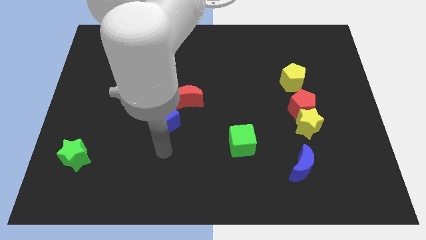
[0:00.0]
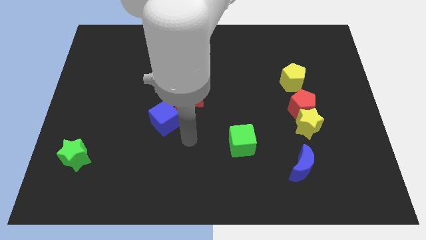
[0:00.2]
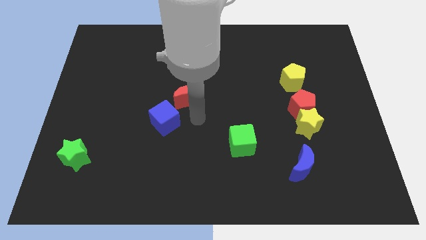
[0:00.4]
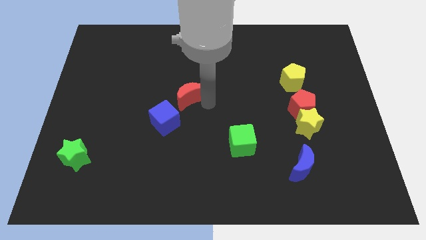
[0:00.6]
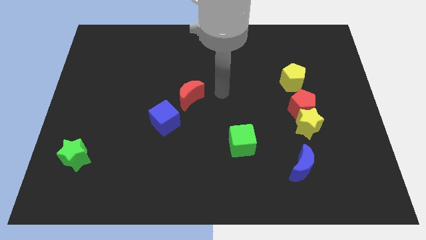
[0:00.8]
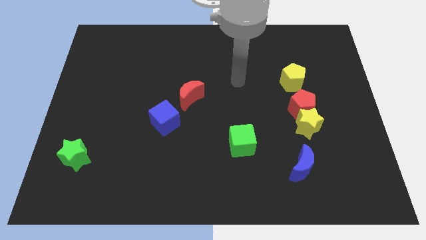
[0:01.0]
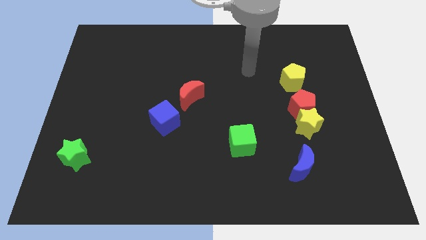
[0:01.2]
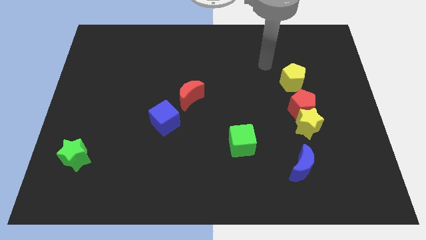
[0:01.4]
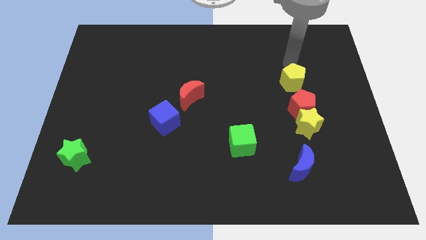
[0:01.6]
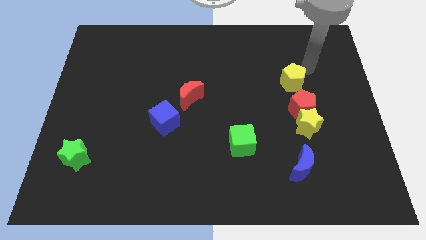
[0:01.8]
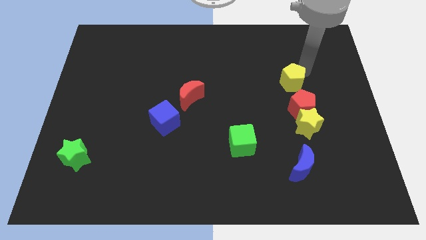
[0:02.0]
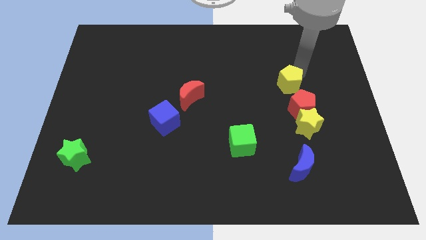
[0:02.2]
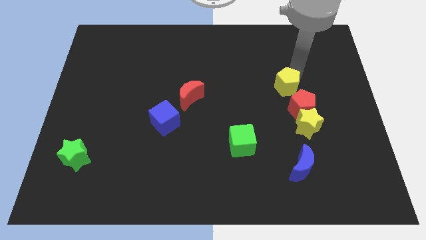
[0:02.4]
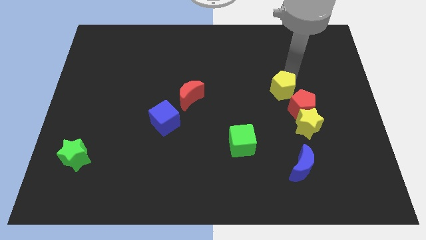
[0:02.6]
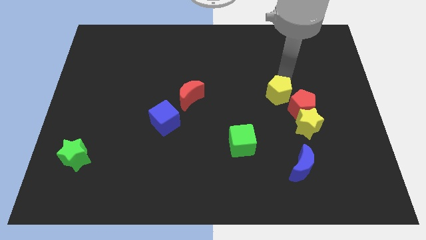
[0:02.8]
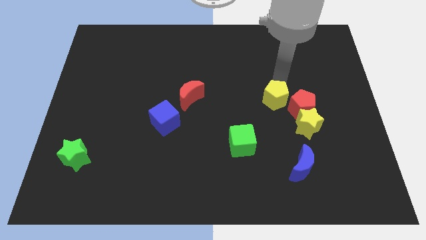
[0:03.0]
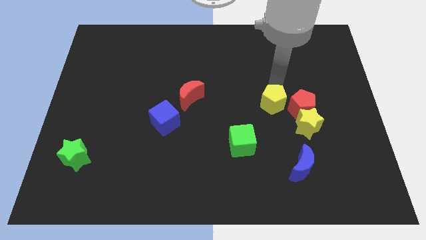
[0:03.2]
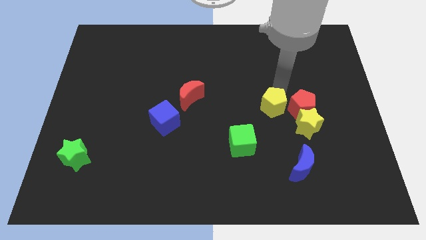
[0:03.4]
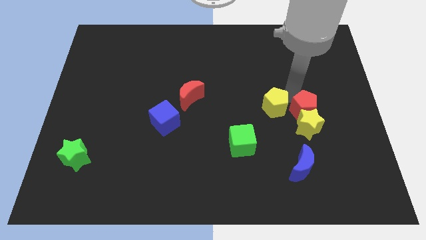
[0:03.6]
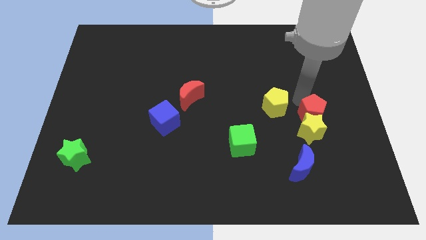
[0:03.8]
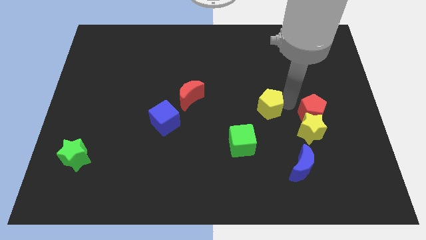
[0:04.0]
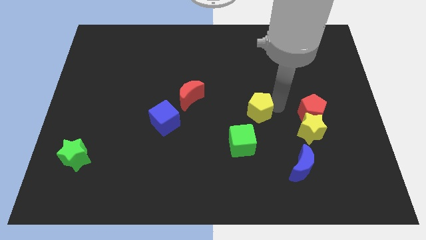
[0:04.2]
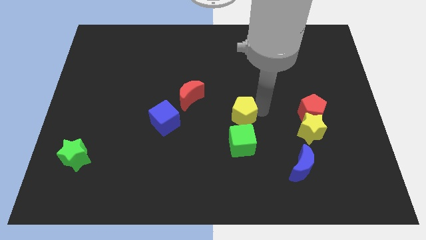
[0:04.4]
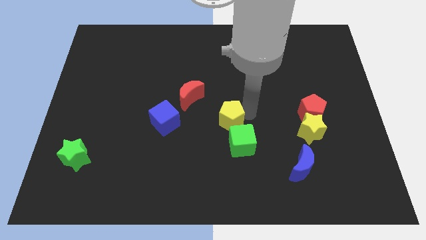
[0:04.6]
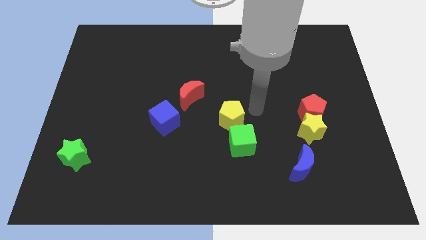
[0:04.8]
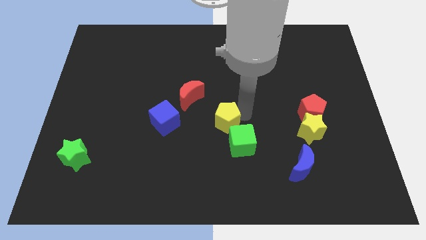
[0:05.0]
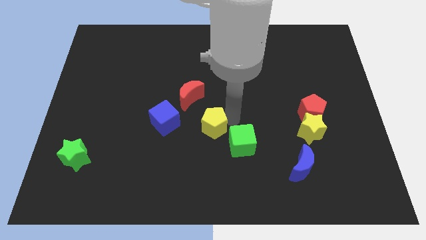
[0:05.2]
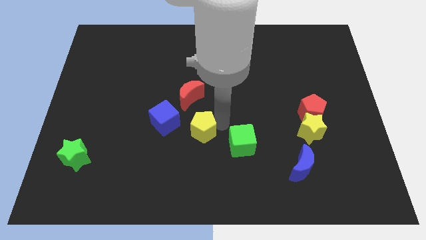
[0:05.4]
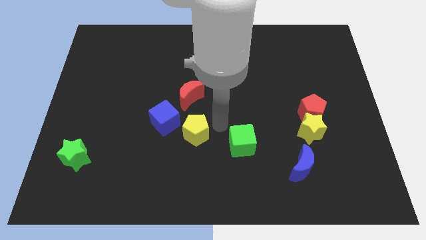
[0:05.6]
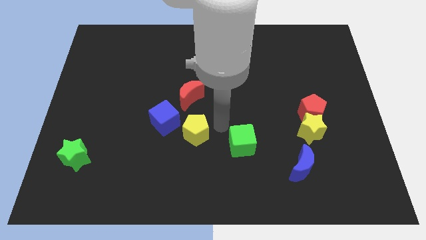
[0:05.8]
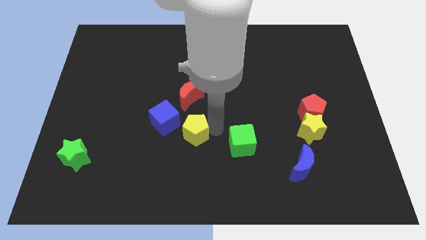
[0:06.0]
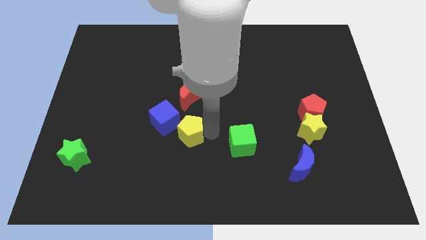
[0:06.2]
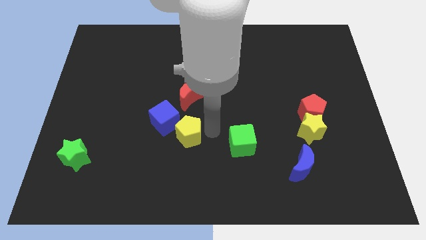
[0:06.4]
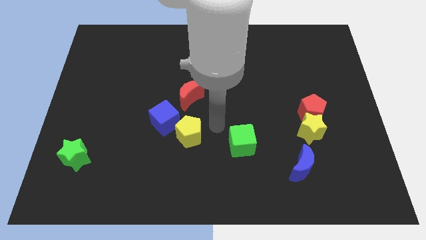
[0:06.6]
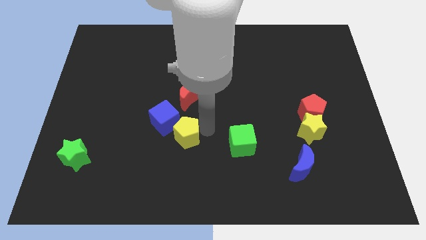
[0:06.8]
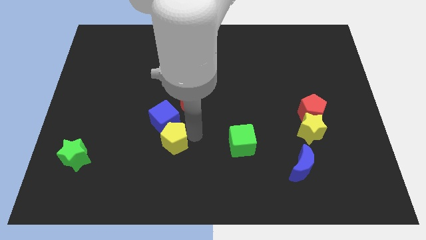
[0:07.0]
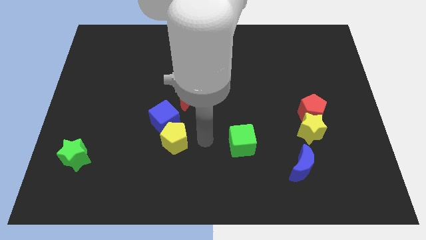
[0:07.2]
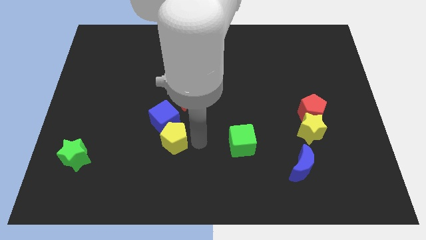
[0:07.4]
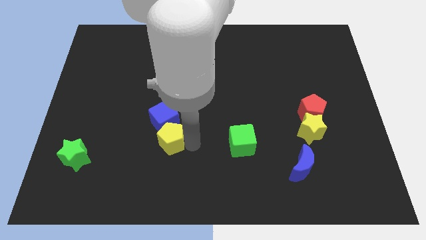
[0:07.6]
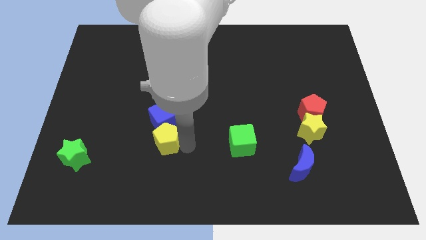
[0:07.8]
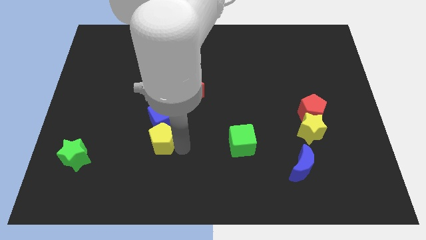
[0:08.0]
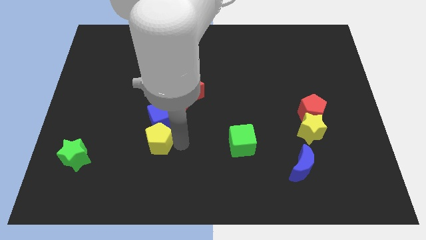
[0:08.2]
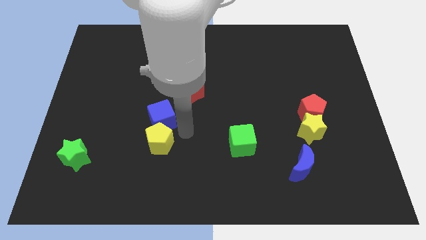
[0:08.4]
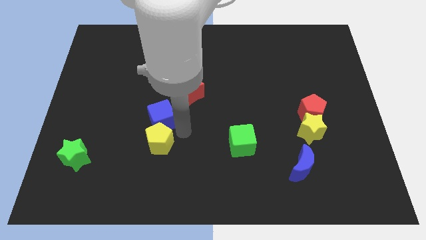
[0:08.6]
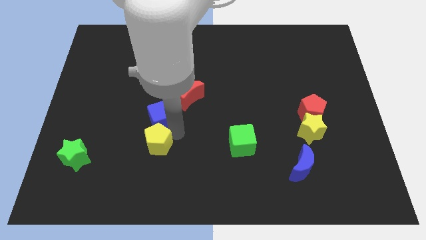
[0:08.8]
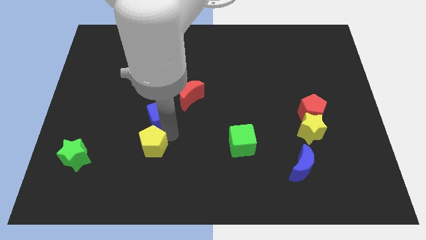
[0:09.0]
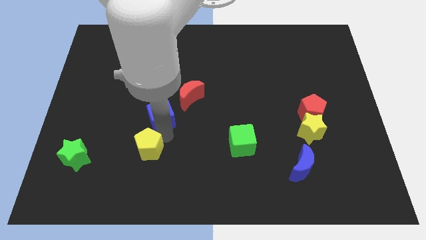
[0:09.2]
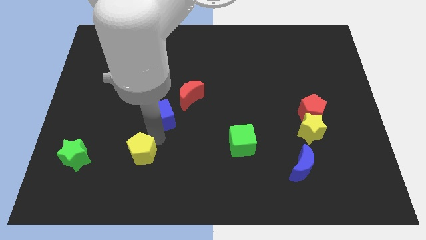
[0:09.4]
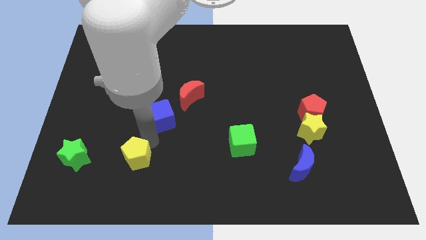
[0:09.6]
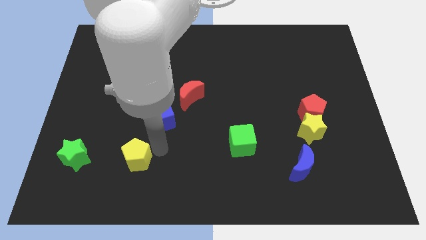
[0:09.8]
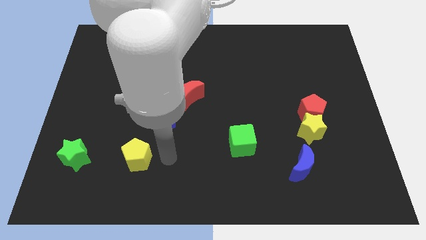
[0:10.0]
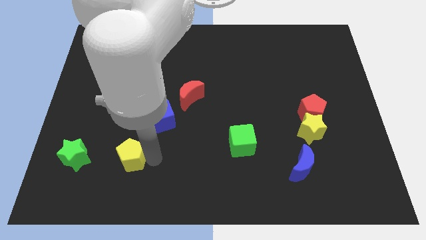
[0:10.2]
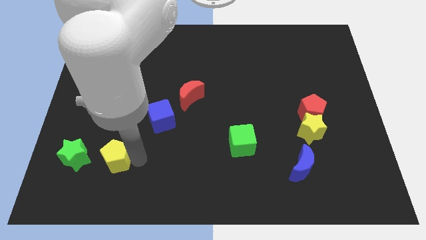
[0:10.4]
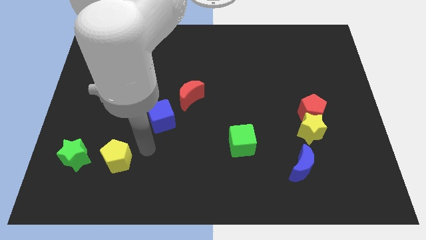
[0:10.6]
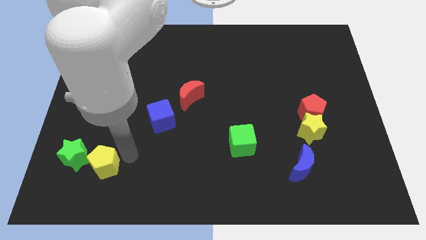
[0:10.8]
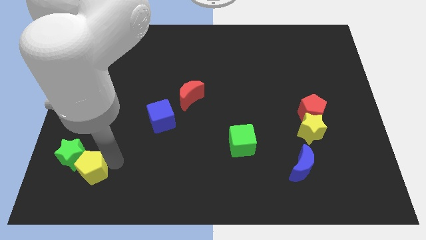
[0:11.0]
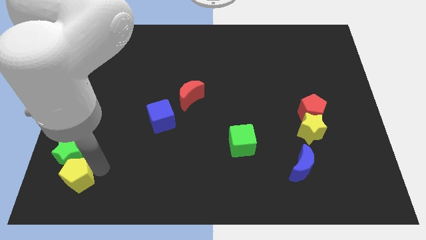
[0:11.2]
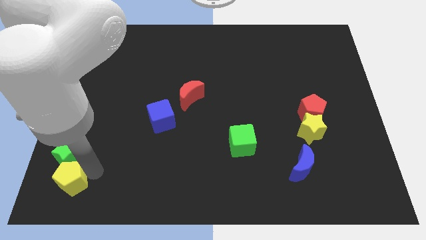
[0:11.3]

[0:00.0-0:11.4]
slide the yellow pentagon to the bottom left

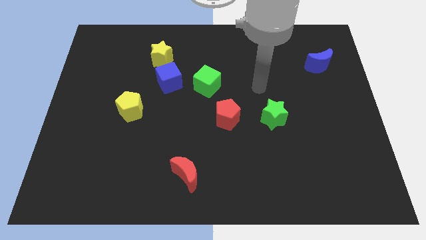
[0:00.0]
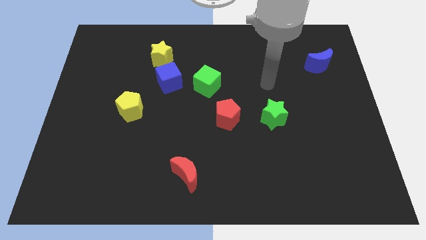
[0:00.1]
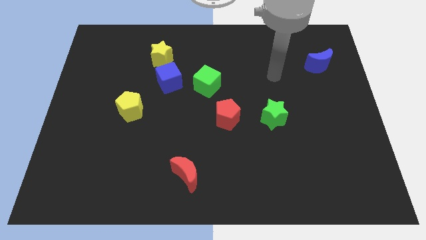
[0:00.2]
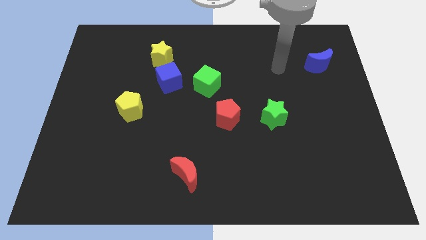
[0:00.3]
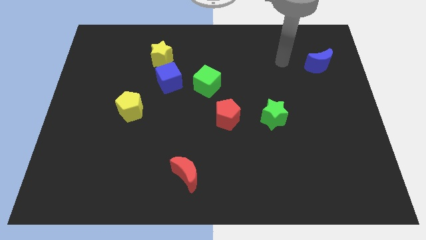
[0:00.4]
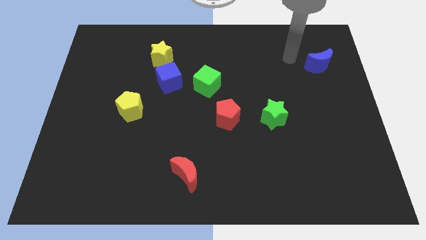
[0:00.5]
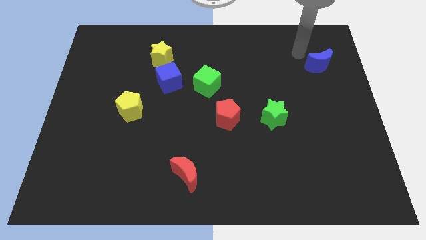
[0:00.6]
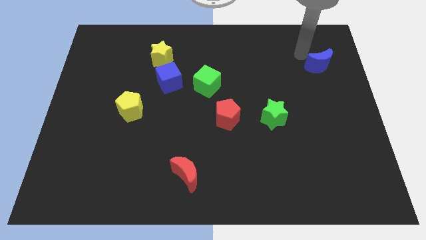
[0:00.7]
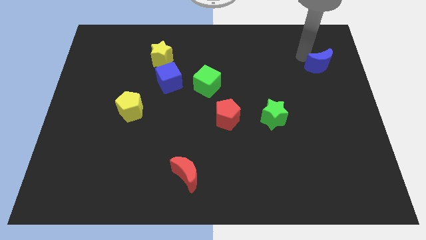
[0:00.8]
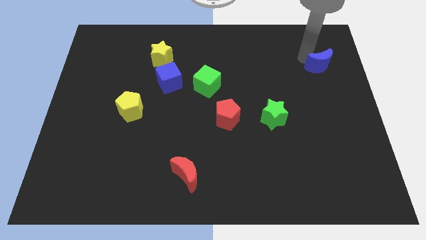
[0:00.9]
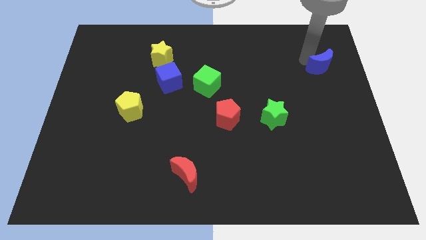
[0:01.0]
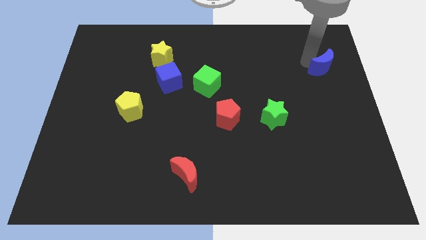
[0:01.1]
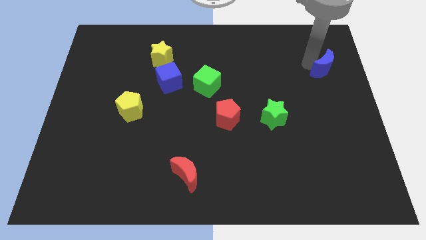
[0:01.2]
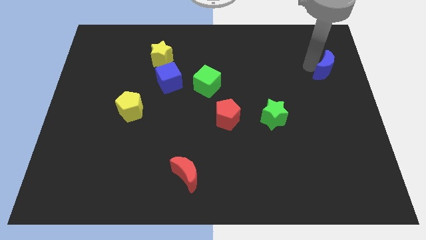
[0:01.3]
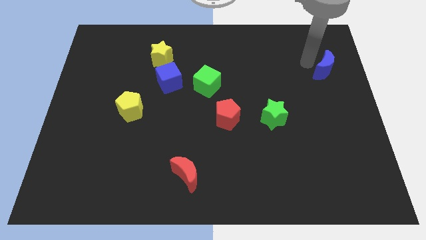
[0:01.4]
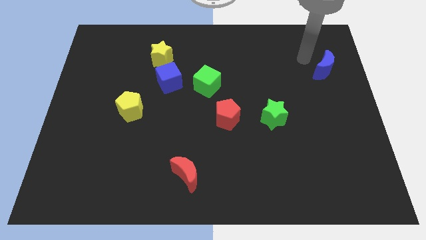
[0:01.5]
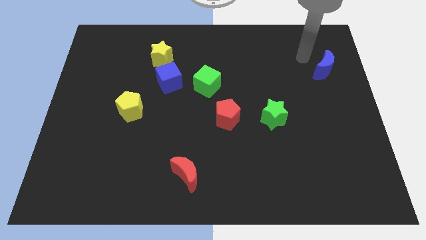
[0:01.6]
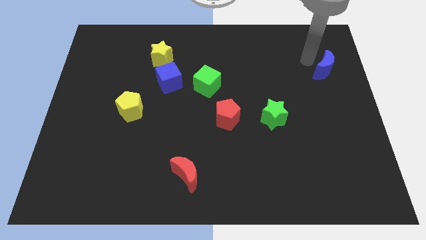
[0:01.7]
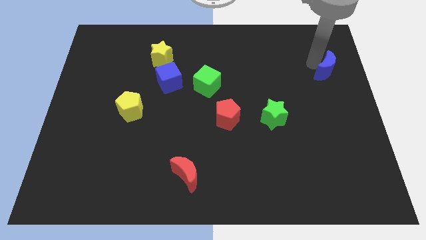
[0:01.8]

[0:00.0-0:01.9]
slide the blue moon to the center right
